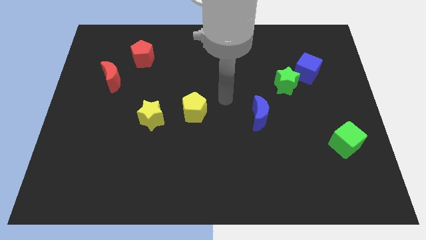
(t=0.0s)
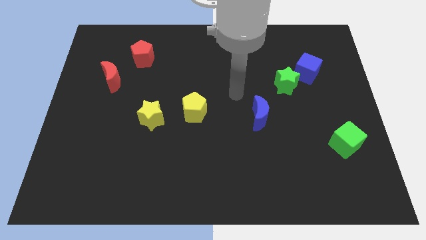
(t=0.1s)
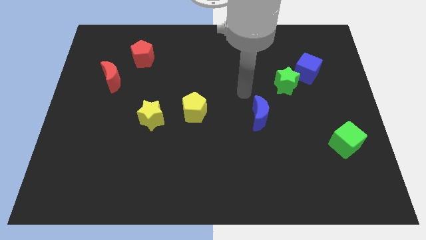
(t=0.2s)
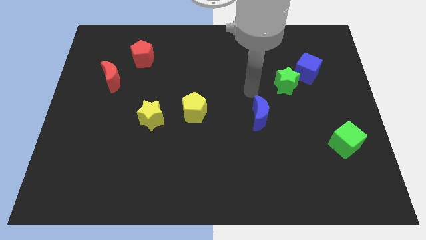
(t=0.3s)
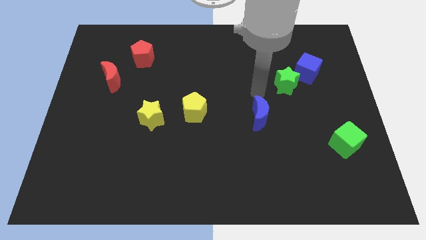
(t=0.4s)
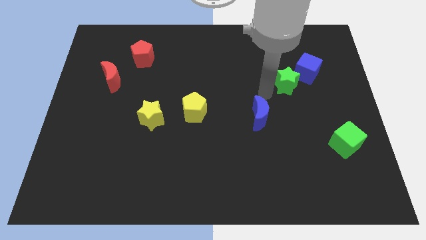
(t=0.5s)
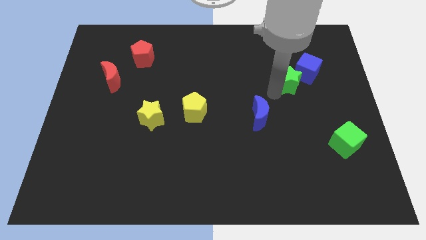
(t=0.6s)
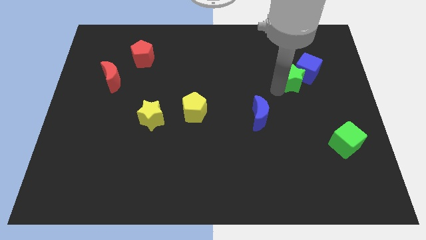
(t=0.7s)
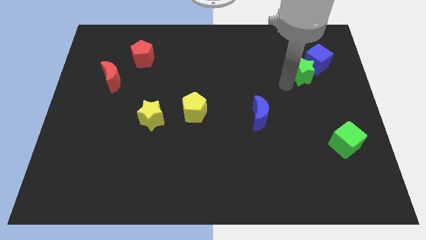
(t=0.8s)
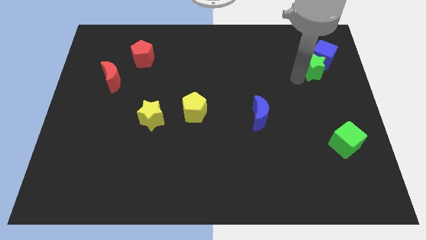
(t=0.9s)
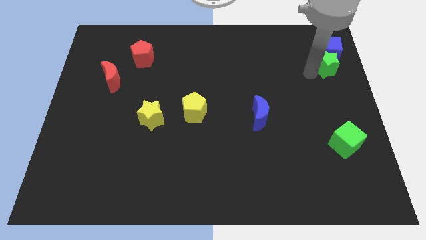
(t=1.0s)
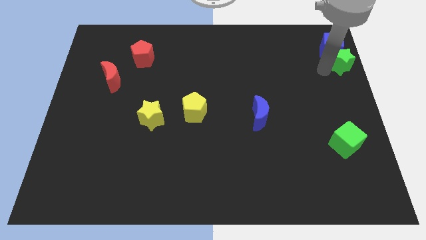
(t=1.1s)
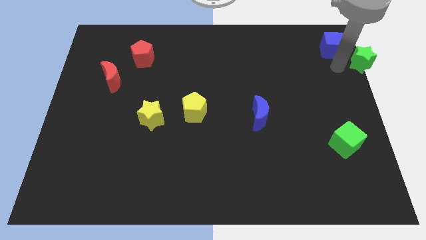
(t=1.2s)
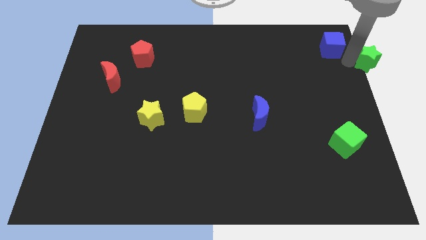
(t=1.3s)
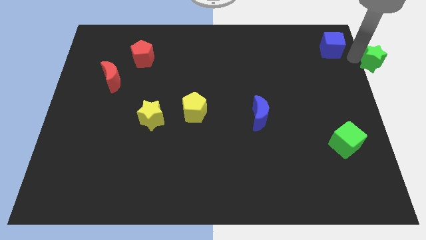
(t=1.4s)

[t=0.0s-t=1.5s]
pull the blue cube apart from the green star

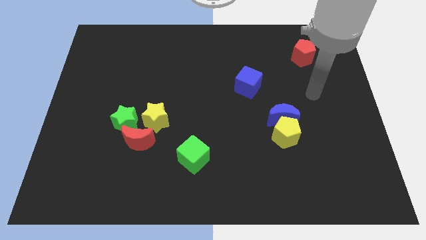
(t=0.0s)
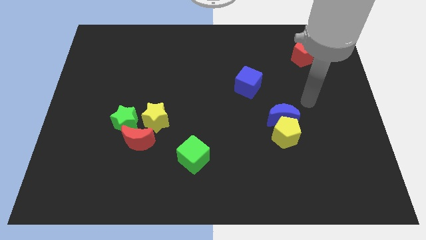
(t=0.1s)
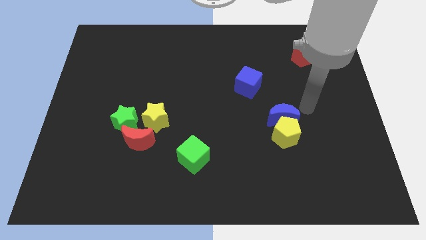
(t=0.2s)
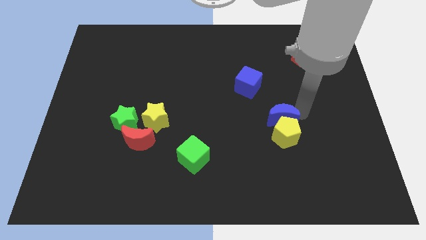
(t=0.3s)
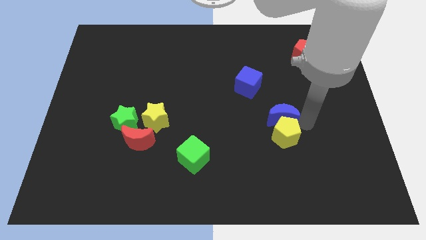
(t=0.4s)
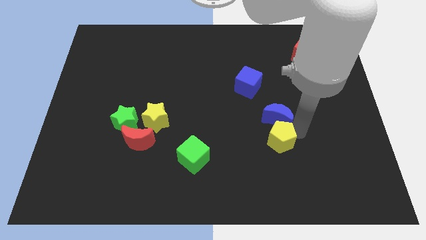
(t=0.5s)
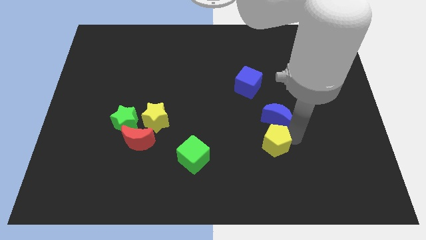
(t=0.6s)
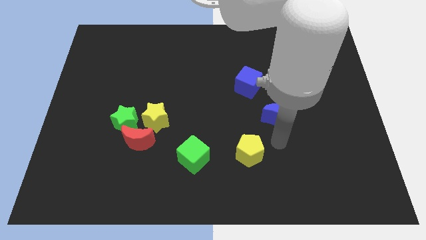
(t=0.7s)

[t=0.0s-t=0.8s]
separate the blue moon from the yellow pentagon

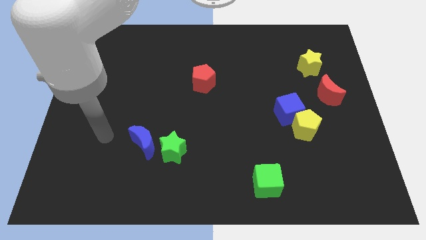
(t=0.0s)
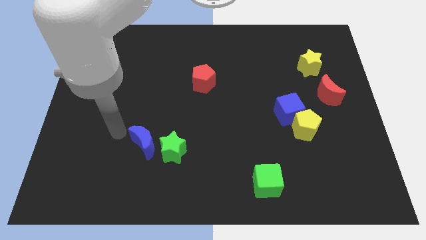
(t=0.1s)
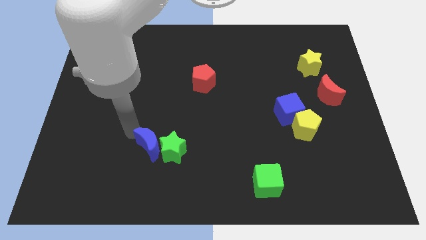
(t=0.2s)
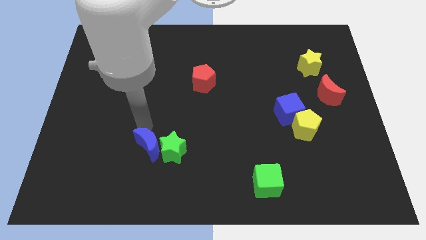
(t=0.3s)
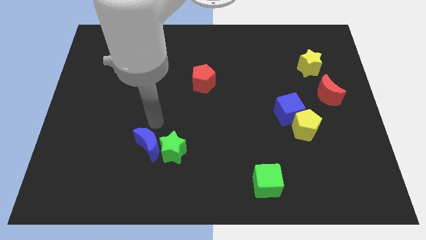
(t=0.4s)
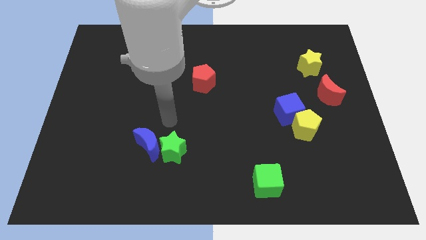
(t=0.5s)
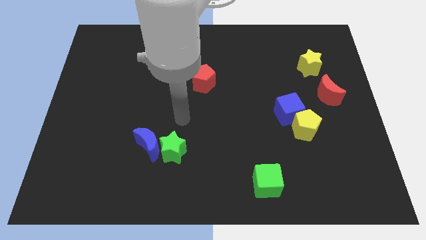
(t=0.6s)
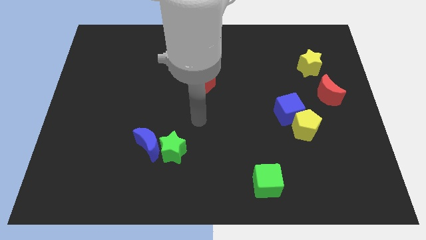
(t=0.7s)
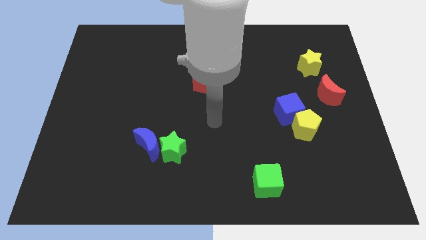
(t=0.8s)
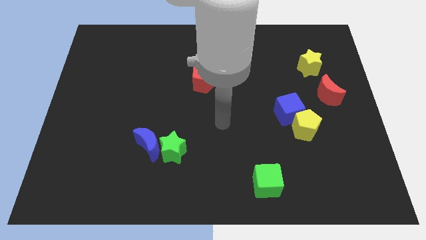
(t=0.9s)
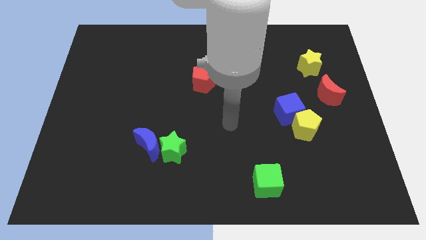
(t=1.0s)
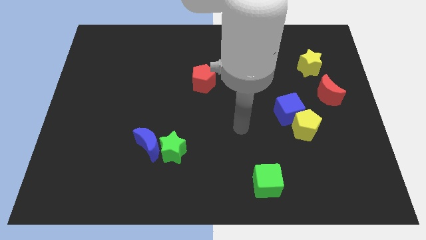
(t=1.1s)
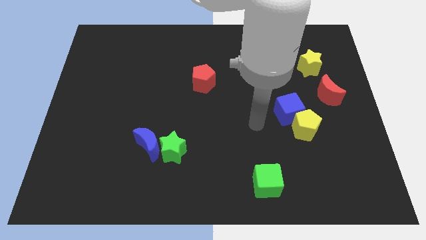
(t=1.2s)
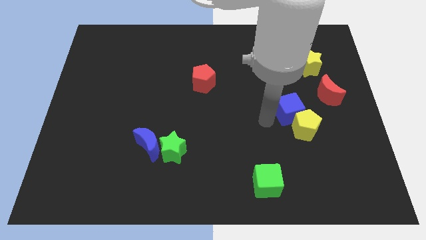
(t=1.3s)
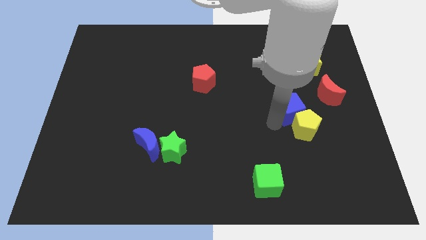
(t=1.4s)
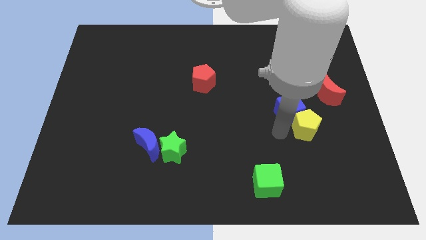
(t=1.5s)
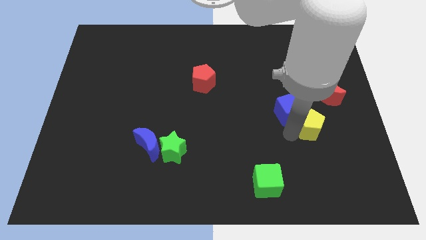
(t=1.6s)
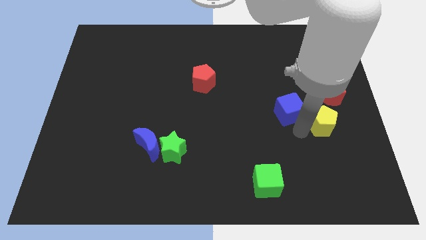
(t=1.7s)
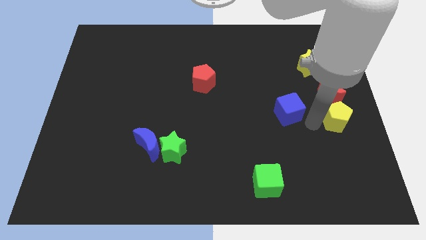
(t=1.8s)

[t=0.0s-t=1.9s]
pull the blue cube apart from the yellow pentagon

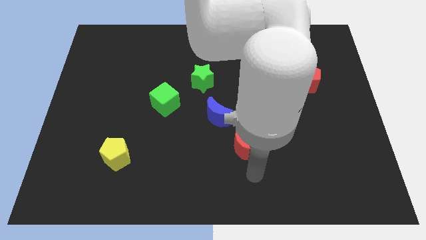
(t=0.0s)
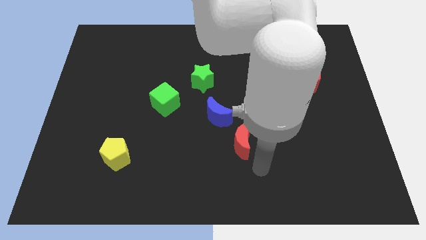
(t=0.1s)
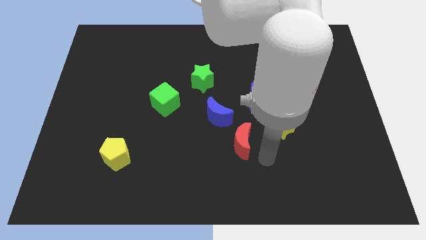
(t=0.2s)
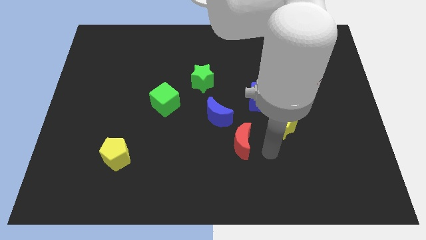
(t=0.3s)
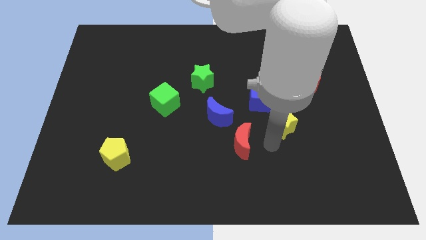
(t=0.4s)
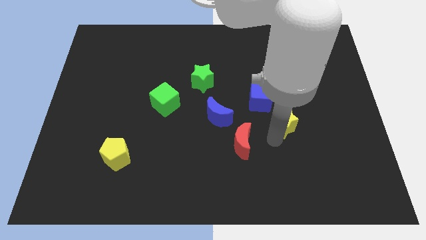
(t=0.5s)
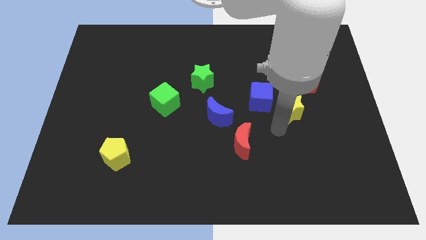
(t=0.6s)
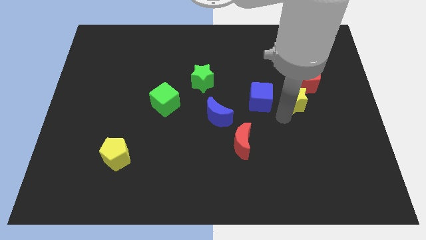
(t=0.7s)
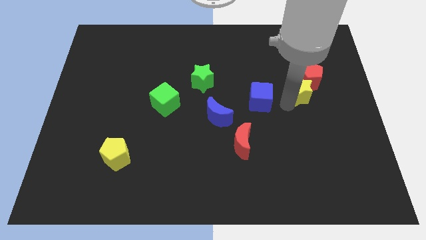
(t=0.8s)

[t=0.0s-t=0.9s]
separate the blue cube from the yellow star

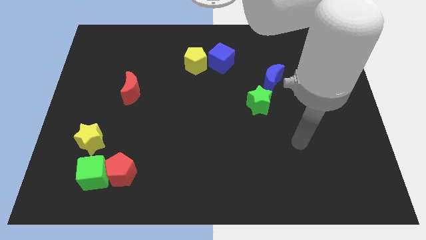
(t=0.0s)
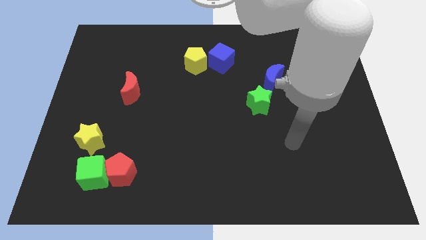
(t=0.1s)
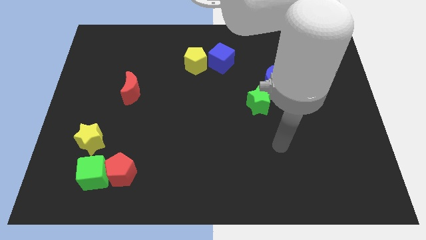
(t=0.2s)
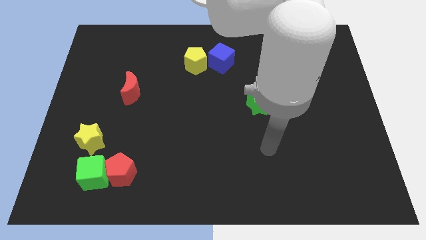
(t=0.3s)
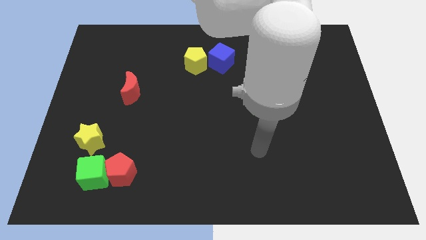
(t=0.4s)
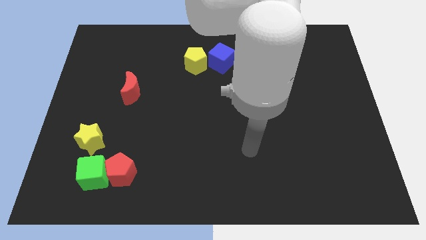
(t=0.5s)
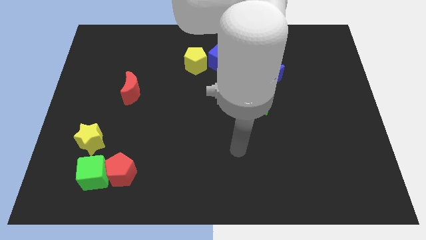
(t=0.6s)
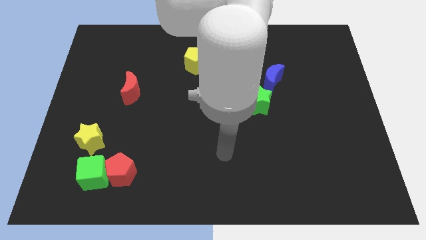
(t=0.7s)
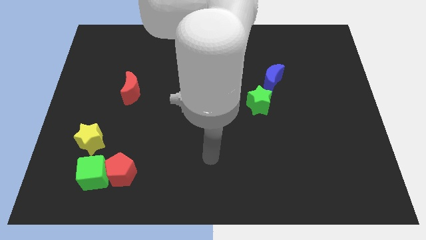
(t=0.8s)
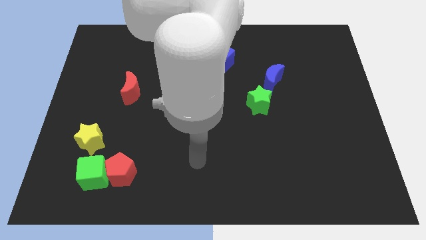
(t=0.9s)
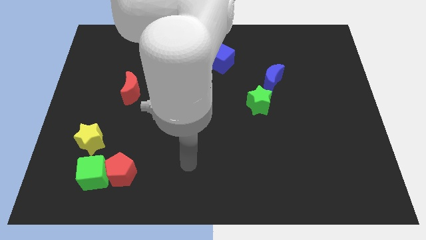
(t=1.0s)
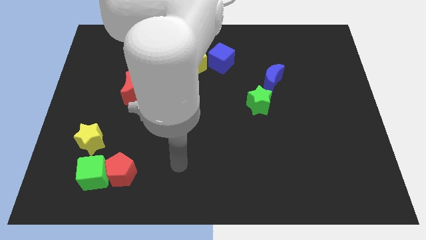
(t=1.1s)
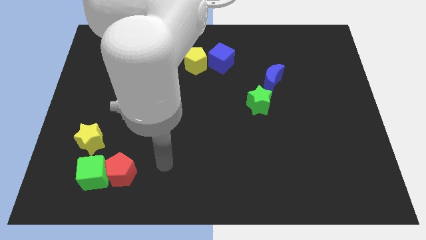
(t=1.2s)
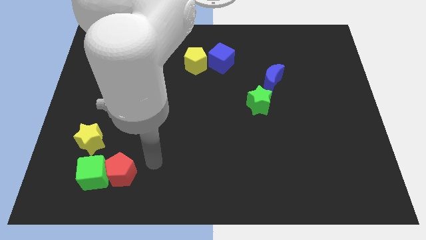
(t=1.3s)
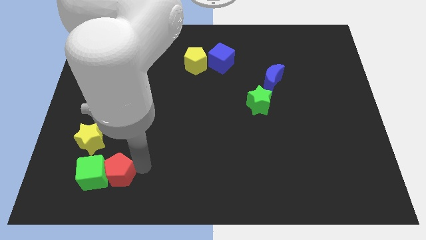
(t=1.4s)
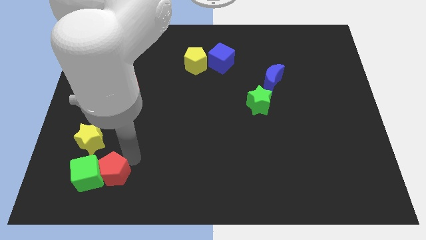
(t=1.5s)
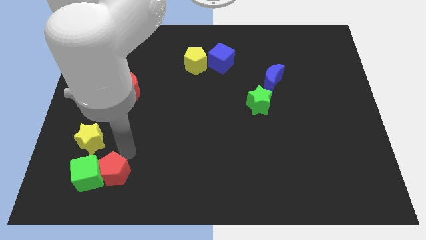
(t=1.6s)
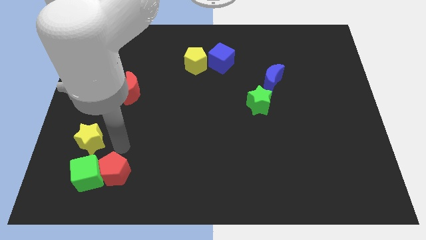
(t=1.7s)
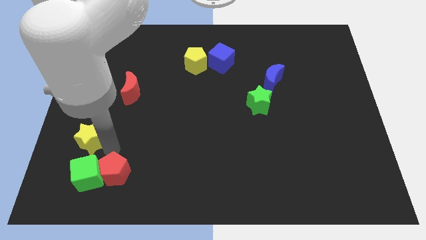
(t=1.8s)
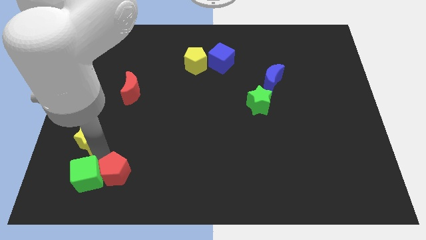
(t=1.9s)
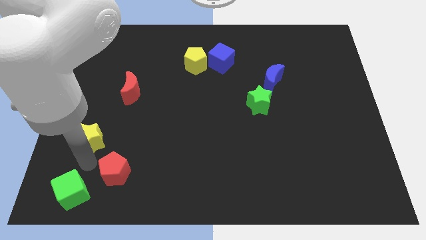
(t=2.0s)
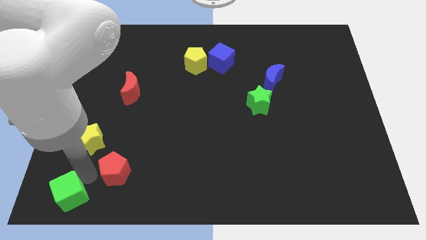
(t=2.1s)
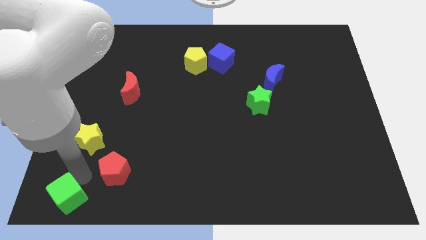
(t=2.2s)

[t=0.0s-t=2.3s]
separate the red pentagon from the green cube

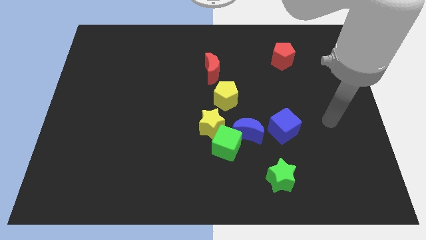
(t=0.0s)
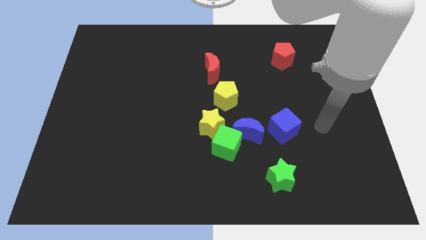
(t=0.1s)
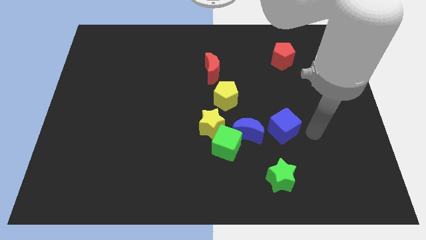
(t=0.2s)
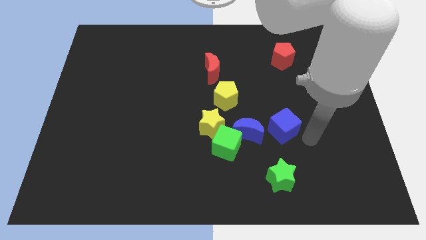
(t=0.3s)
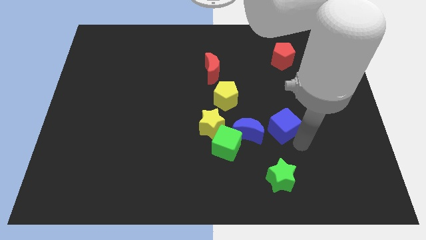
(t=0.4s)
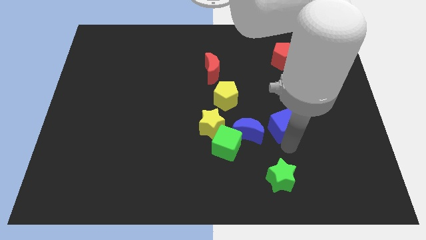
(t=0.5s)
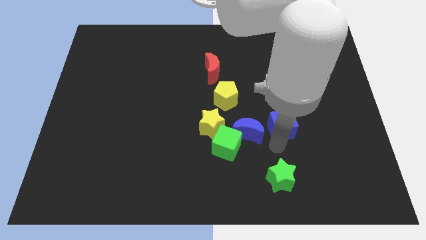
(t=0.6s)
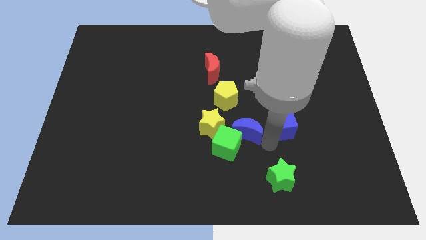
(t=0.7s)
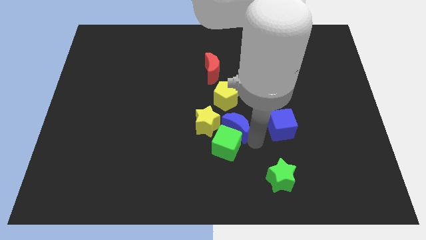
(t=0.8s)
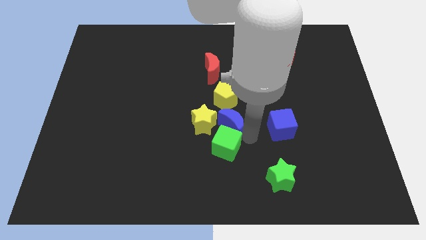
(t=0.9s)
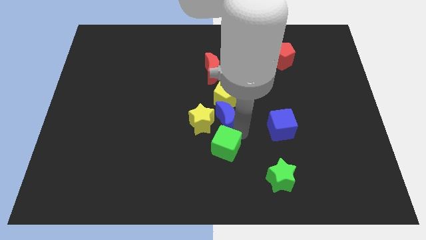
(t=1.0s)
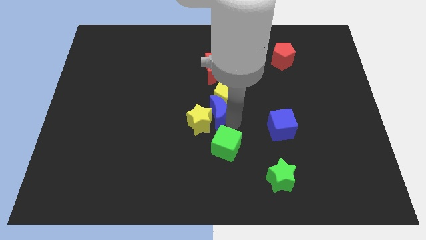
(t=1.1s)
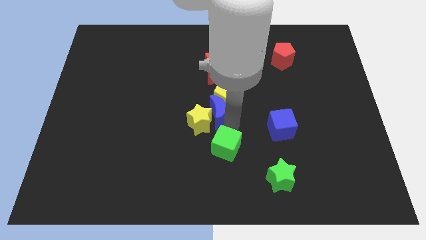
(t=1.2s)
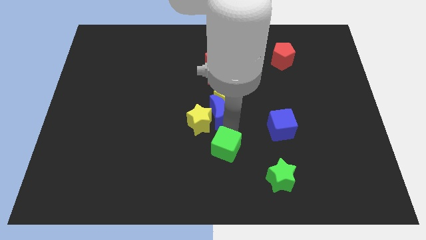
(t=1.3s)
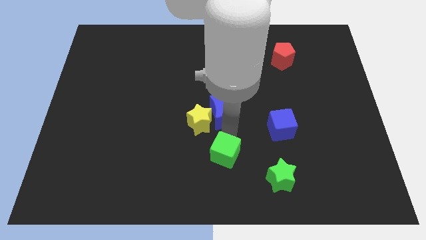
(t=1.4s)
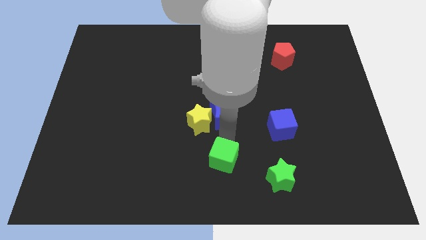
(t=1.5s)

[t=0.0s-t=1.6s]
pull the green cube apart from the yellow star and blue moon

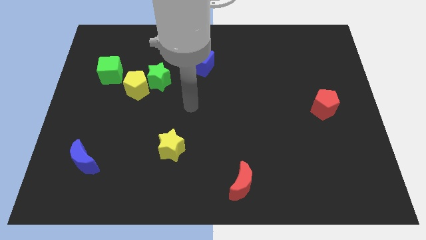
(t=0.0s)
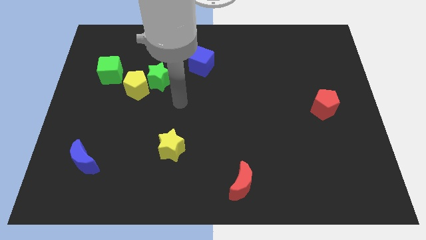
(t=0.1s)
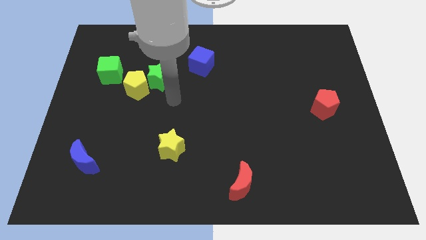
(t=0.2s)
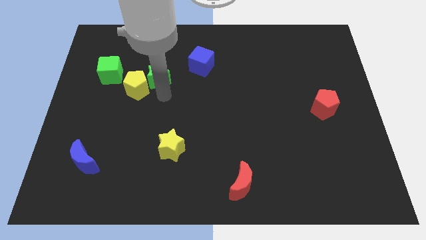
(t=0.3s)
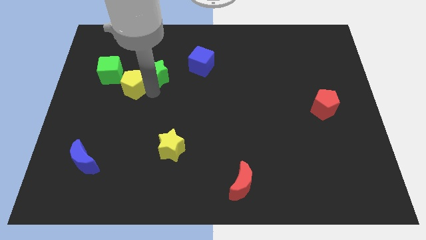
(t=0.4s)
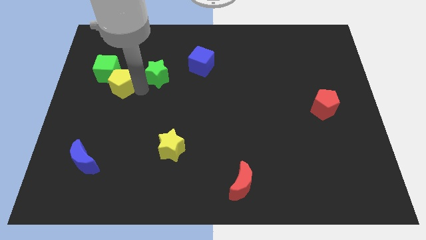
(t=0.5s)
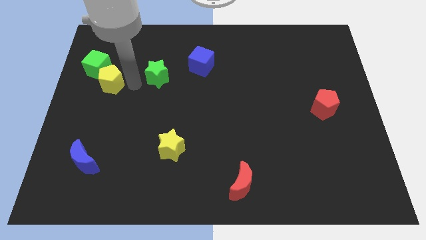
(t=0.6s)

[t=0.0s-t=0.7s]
pull the green star apart from the yellow pentagon